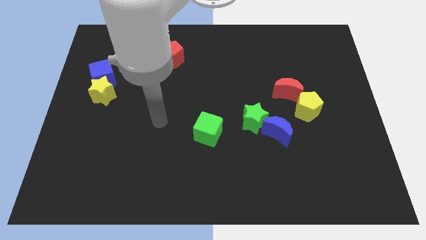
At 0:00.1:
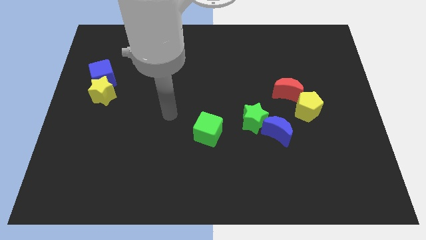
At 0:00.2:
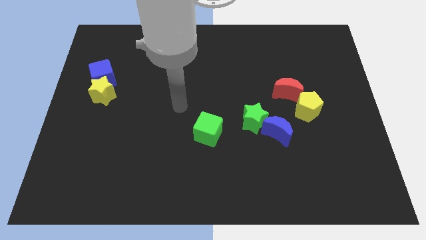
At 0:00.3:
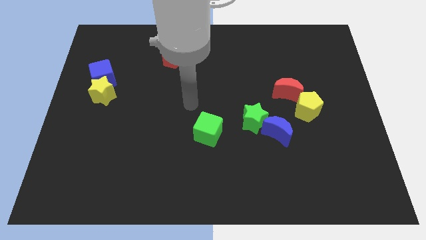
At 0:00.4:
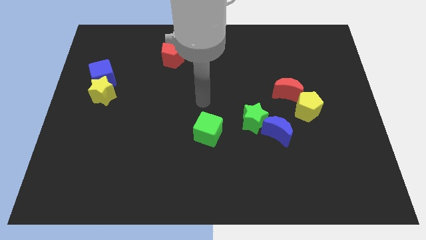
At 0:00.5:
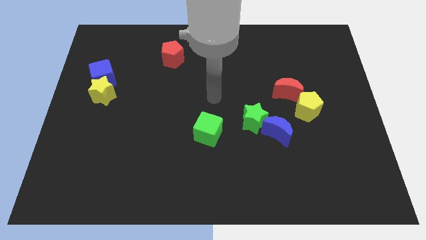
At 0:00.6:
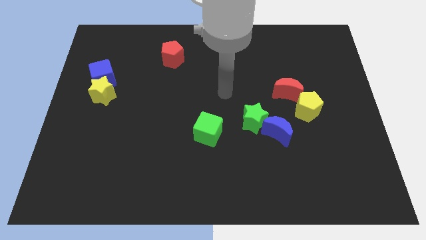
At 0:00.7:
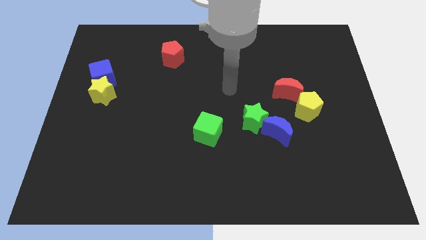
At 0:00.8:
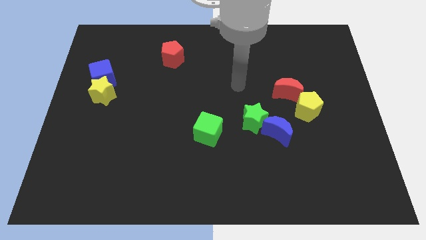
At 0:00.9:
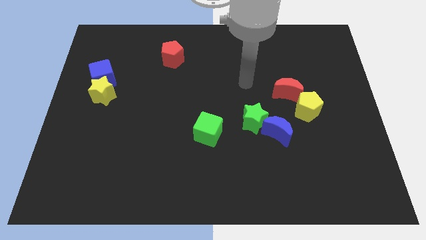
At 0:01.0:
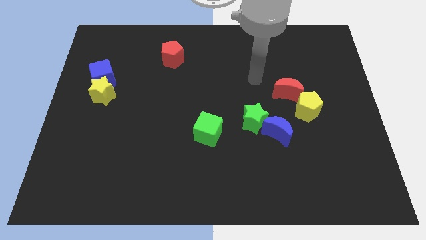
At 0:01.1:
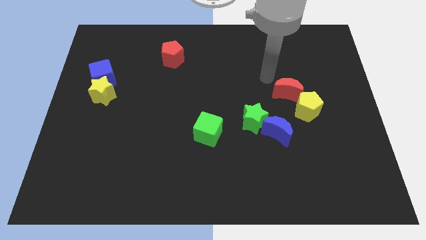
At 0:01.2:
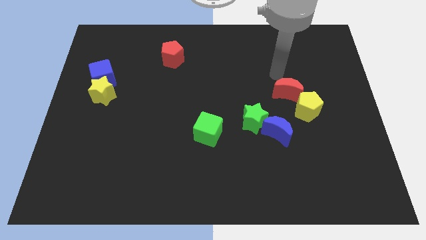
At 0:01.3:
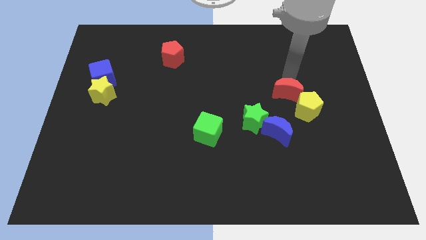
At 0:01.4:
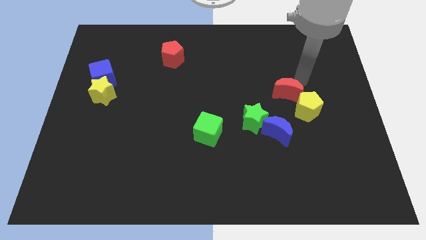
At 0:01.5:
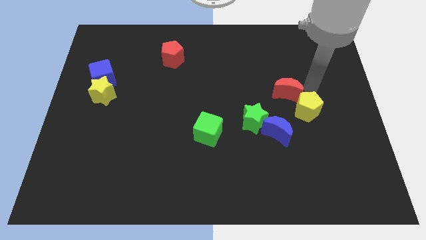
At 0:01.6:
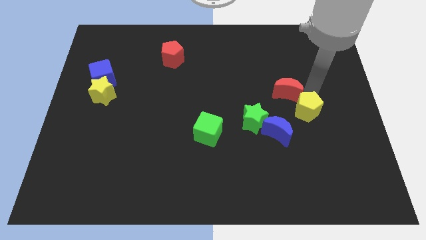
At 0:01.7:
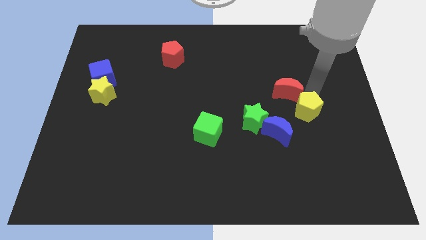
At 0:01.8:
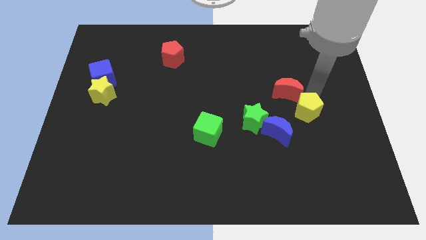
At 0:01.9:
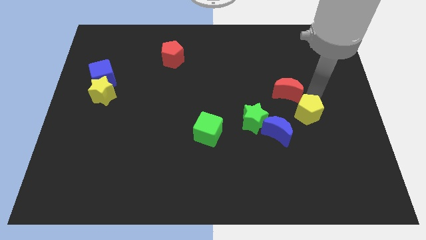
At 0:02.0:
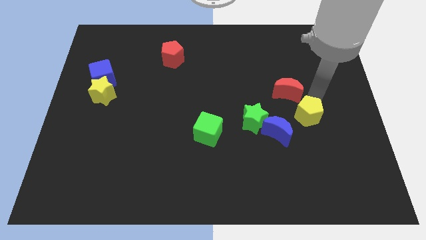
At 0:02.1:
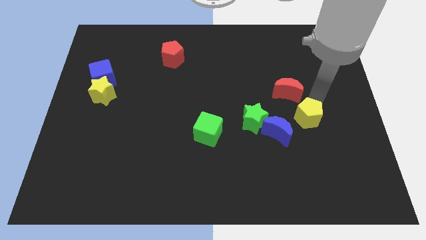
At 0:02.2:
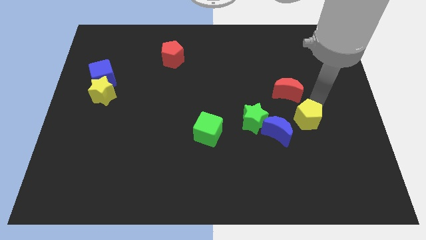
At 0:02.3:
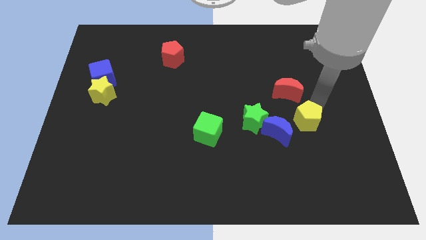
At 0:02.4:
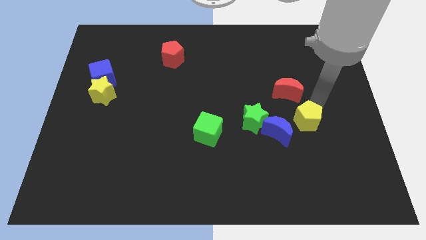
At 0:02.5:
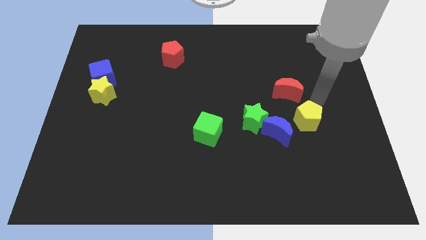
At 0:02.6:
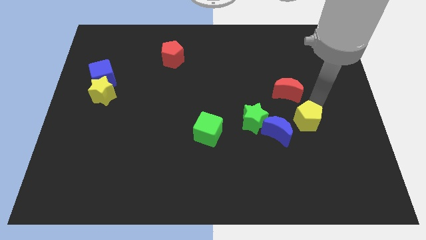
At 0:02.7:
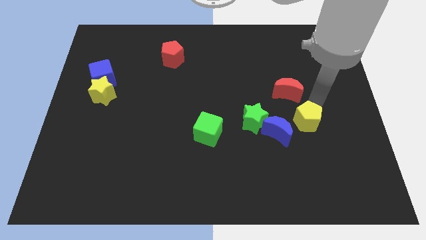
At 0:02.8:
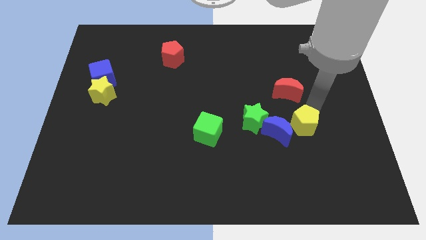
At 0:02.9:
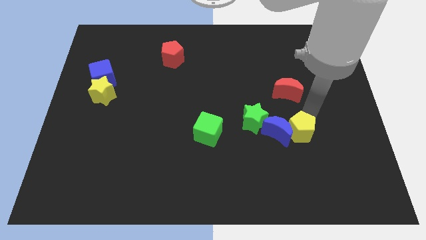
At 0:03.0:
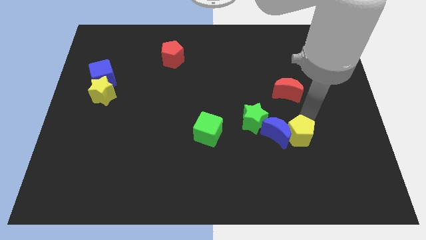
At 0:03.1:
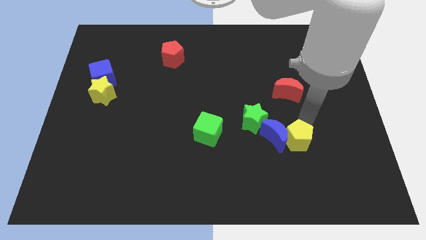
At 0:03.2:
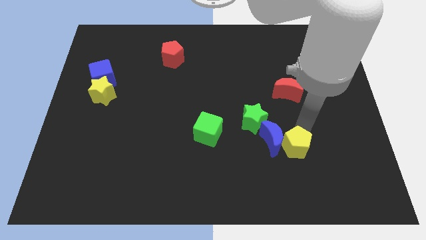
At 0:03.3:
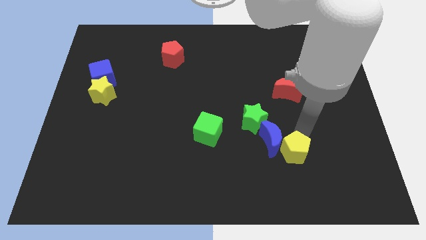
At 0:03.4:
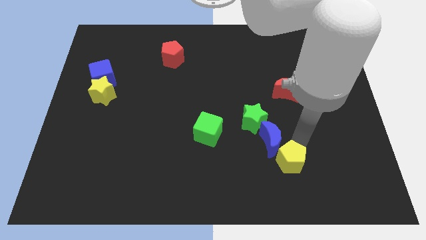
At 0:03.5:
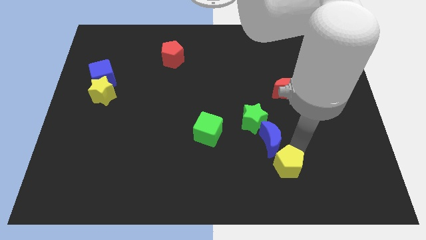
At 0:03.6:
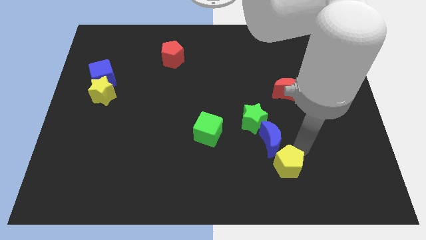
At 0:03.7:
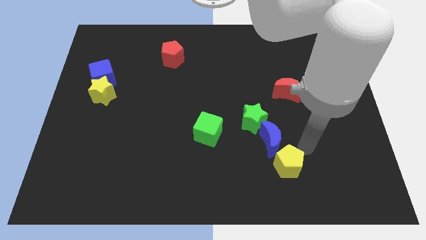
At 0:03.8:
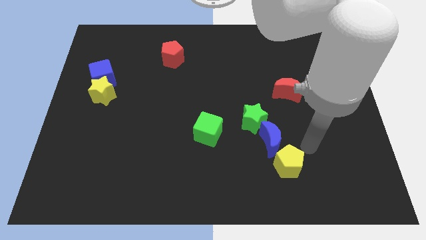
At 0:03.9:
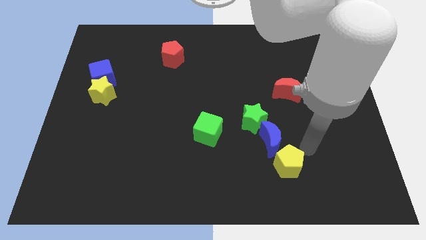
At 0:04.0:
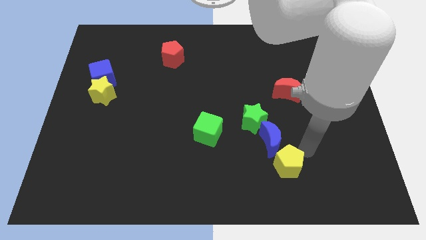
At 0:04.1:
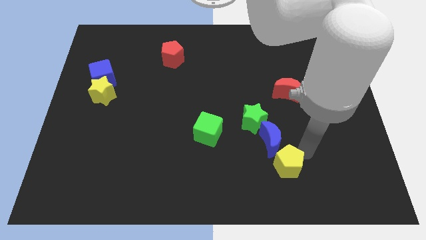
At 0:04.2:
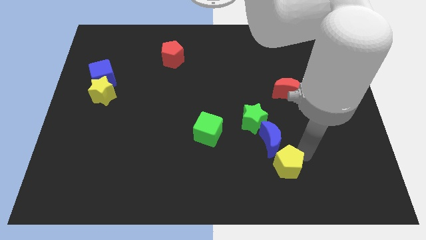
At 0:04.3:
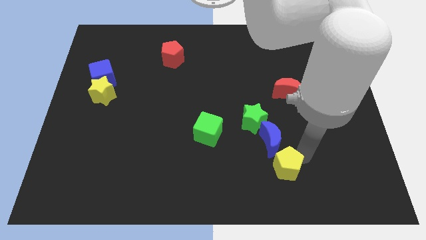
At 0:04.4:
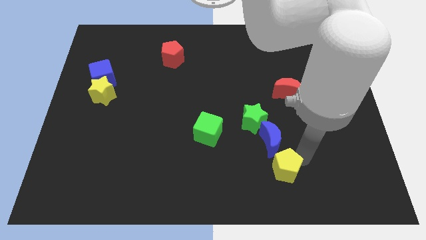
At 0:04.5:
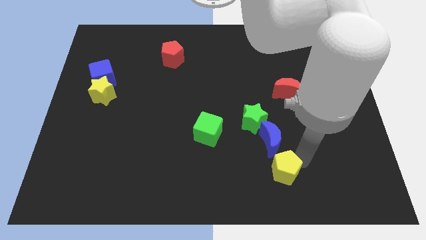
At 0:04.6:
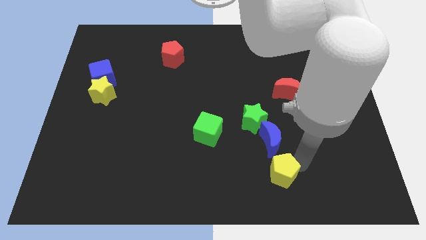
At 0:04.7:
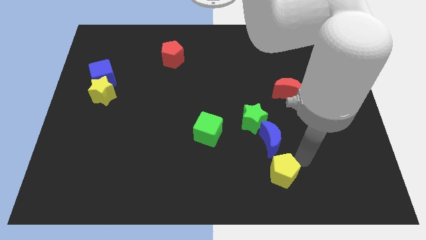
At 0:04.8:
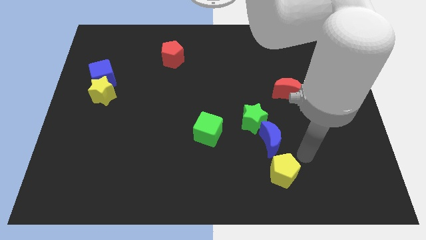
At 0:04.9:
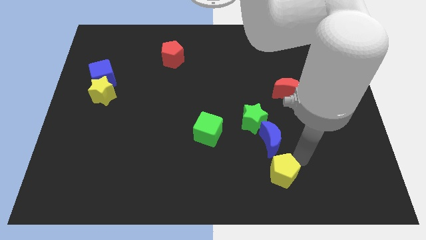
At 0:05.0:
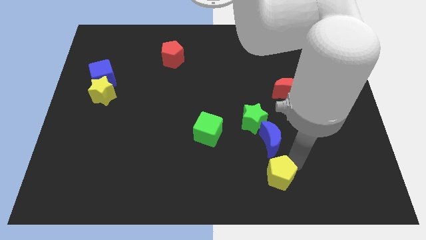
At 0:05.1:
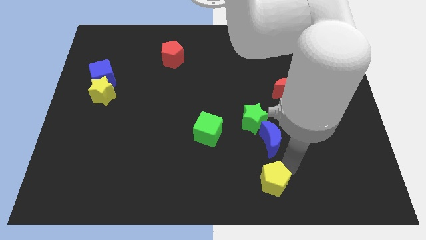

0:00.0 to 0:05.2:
put the yellow pentagon to the bottom side

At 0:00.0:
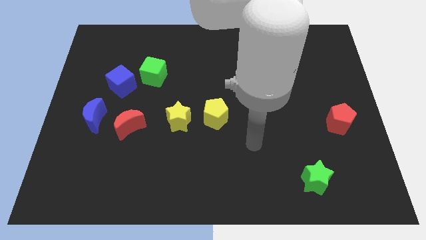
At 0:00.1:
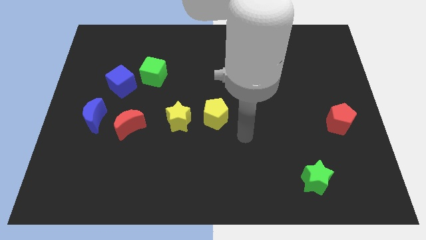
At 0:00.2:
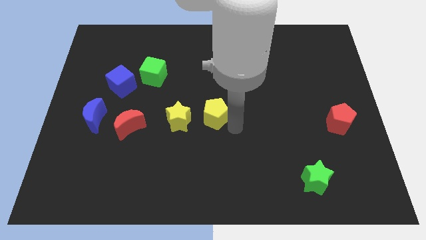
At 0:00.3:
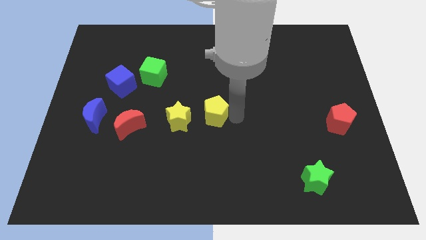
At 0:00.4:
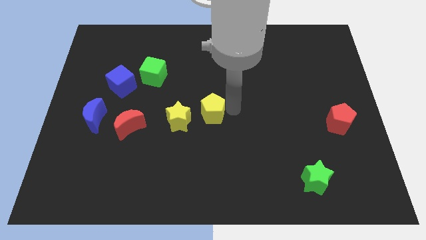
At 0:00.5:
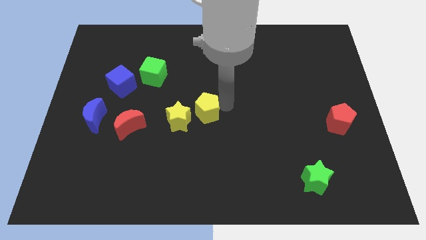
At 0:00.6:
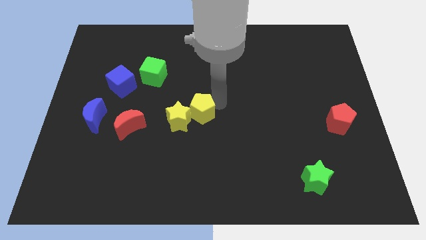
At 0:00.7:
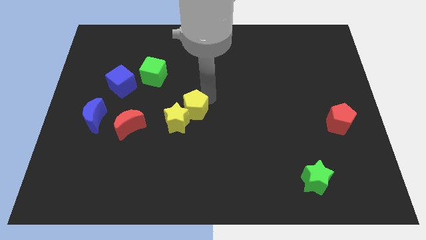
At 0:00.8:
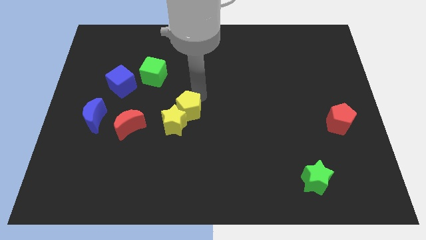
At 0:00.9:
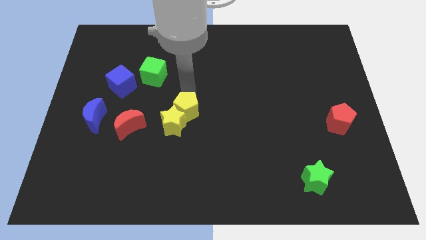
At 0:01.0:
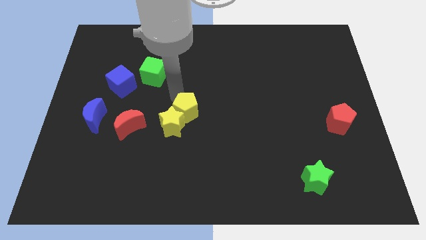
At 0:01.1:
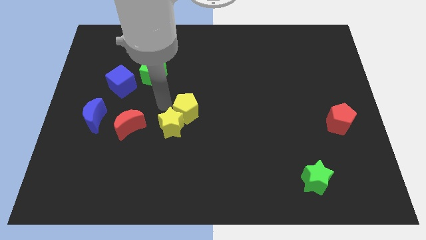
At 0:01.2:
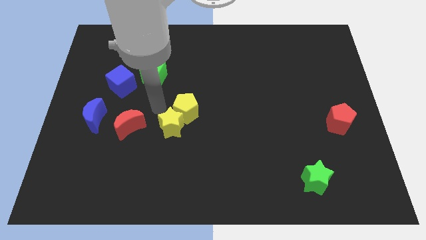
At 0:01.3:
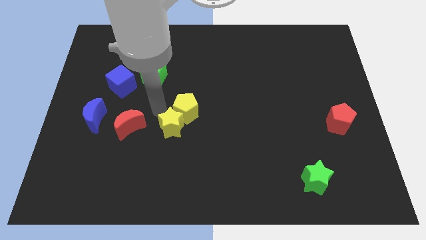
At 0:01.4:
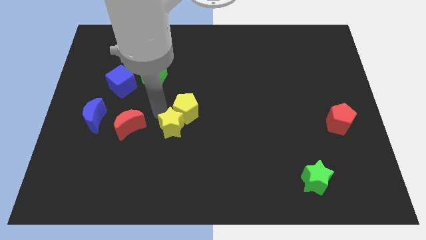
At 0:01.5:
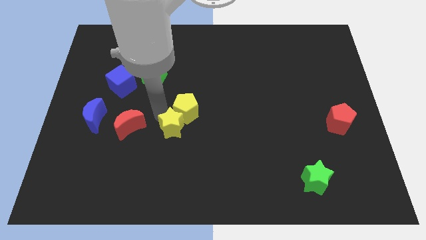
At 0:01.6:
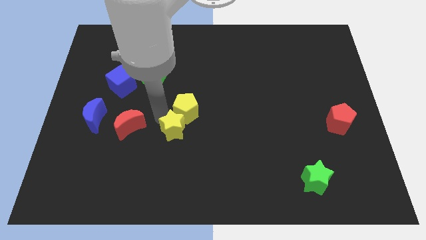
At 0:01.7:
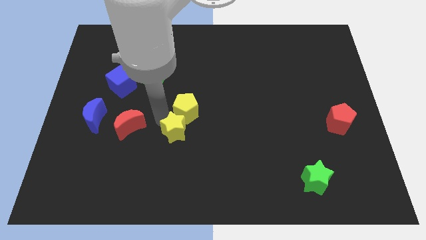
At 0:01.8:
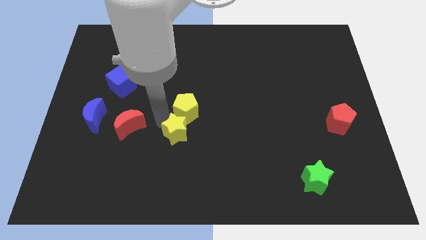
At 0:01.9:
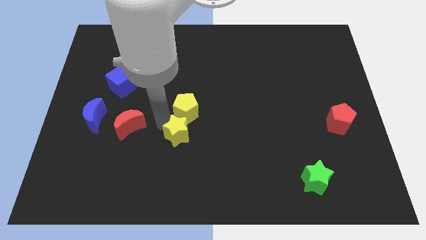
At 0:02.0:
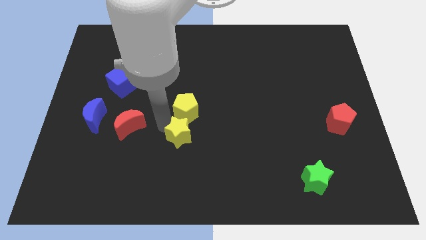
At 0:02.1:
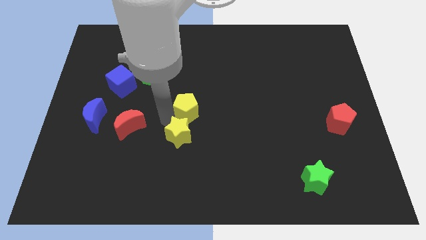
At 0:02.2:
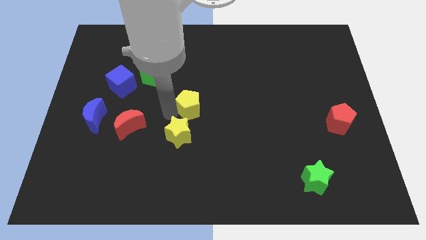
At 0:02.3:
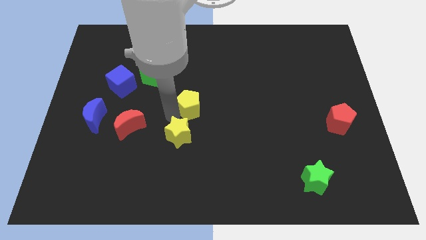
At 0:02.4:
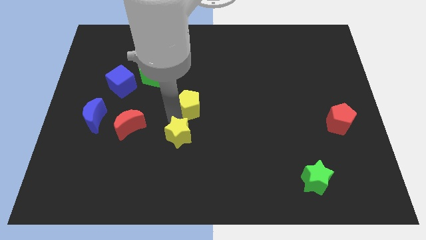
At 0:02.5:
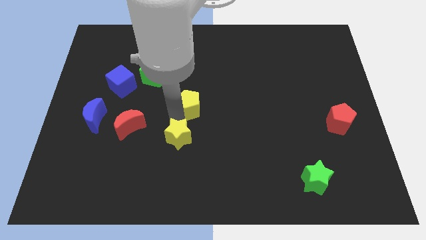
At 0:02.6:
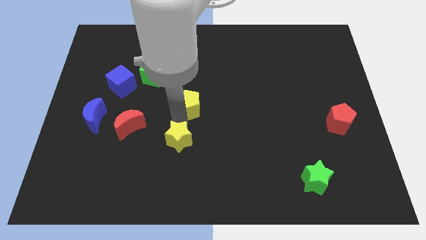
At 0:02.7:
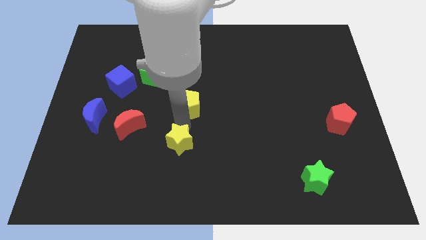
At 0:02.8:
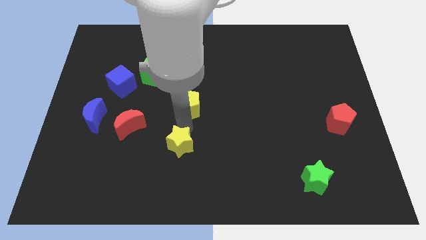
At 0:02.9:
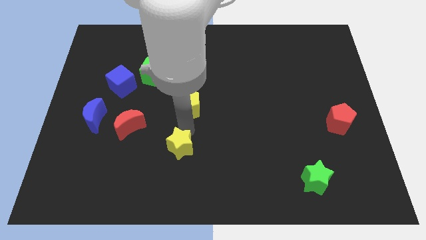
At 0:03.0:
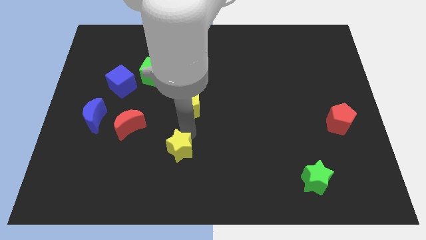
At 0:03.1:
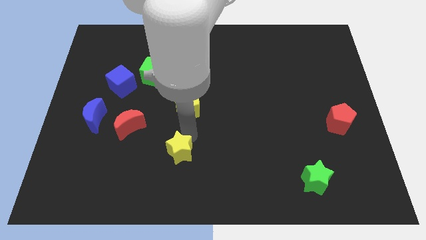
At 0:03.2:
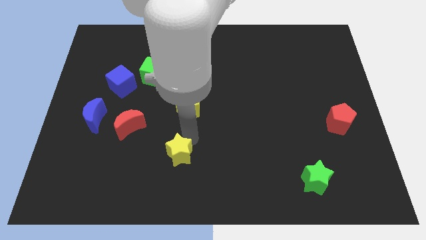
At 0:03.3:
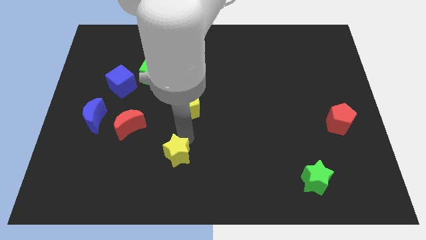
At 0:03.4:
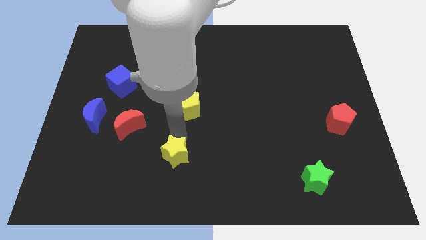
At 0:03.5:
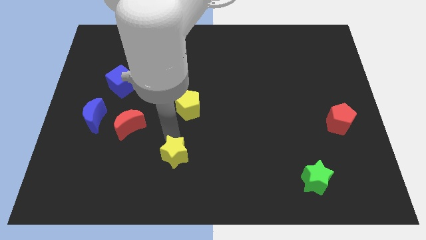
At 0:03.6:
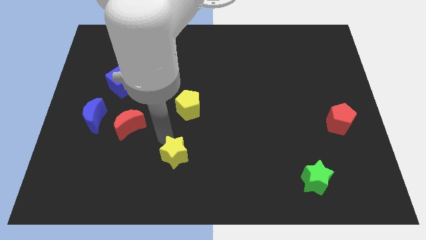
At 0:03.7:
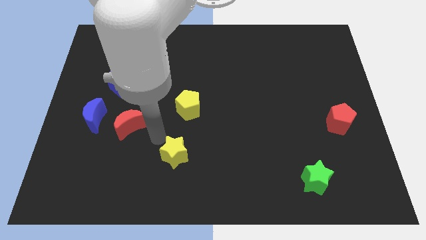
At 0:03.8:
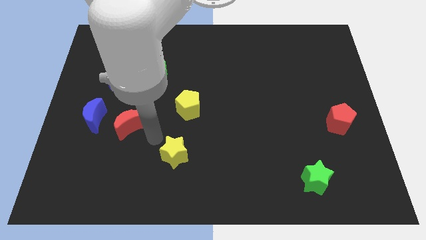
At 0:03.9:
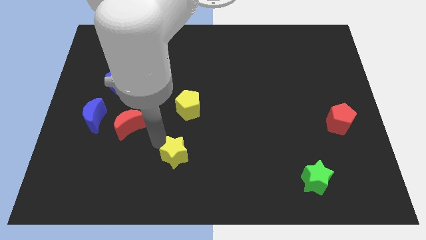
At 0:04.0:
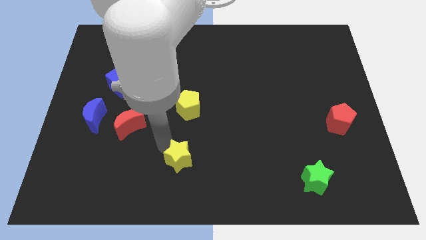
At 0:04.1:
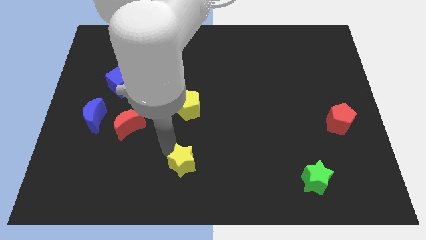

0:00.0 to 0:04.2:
slide the yellow star to the bottom
